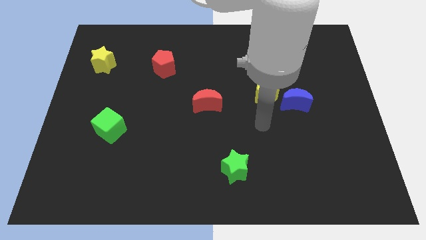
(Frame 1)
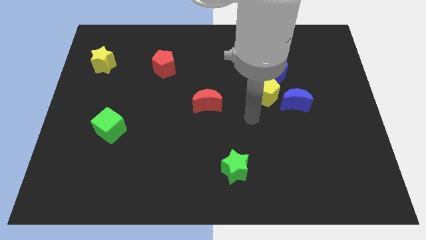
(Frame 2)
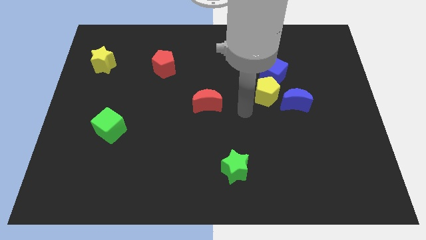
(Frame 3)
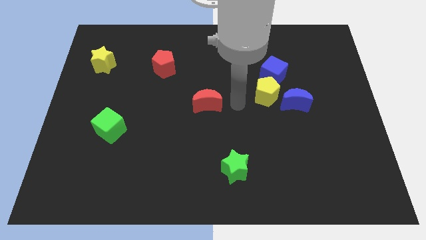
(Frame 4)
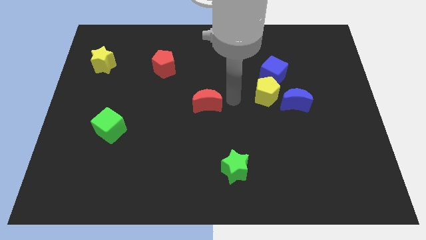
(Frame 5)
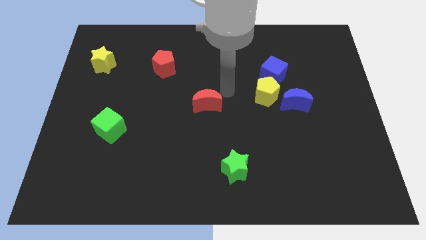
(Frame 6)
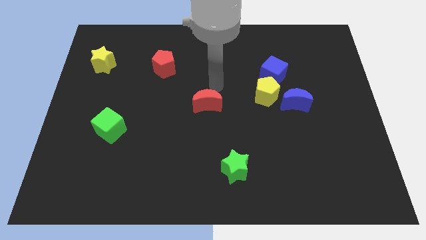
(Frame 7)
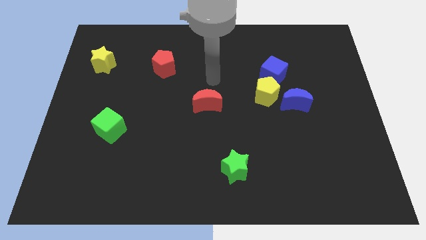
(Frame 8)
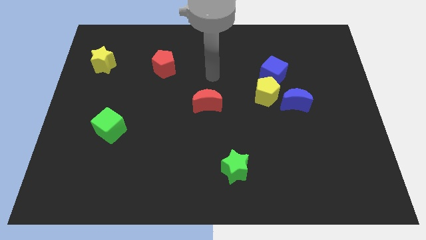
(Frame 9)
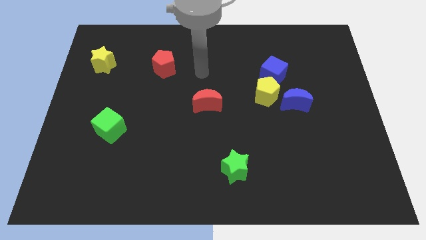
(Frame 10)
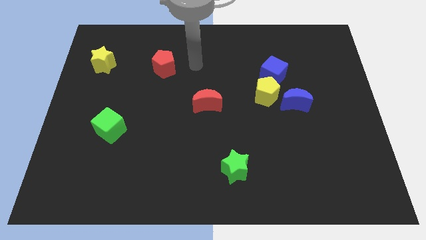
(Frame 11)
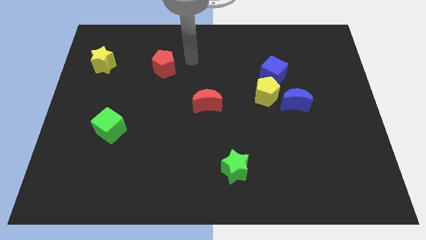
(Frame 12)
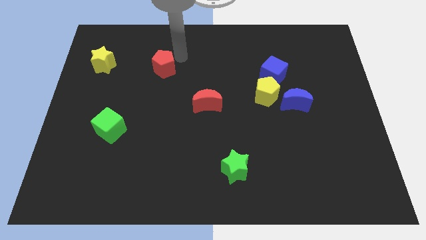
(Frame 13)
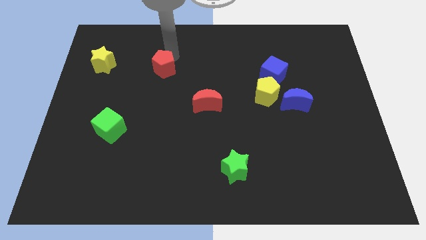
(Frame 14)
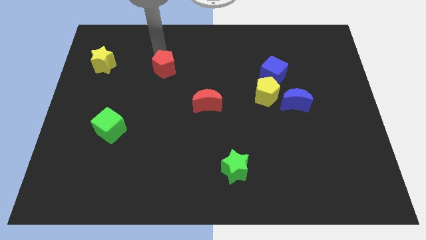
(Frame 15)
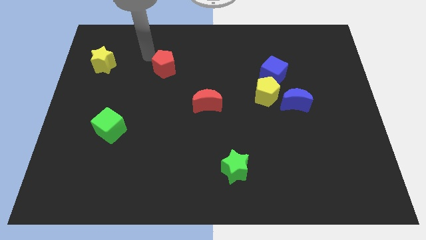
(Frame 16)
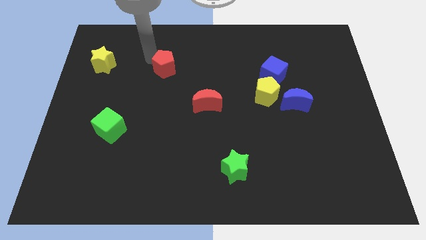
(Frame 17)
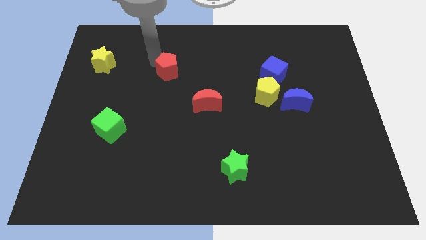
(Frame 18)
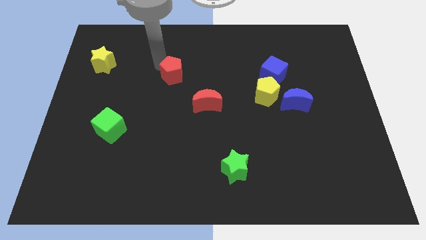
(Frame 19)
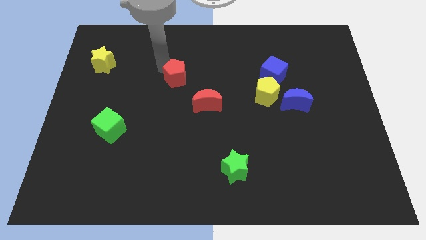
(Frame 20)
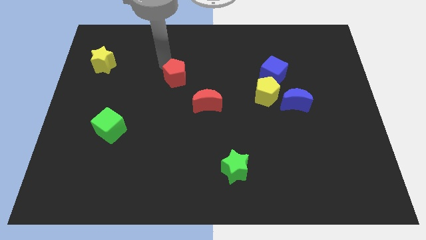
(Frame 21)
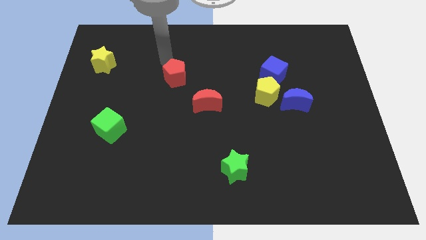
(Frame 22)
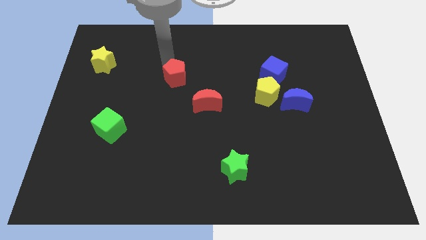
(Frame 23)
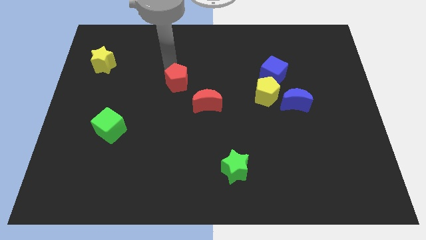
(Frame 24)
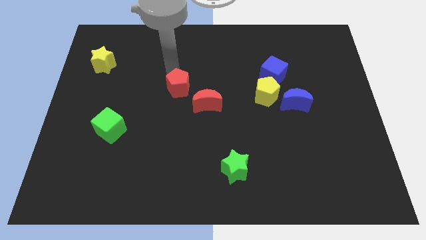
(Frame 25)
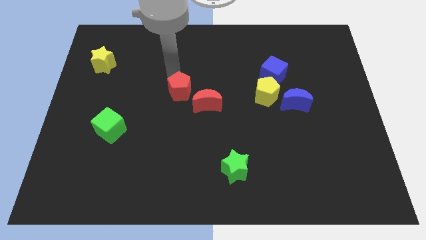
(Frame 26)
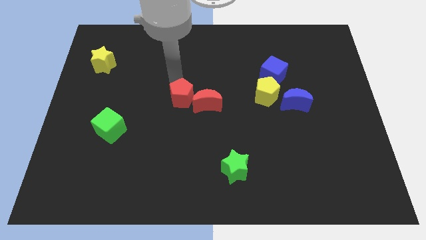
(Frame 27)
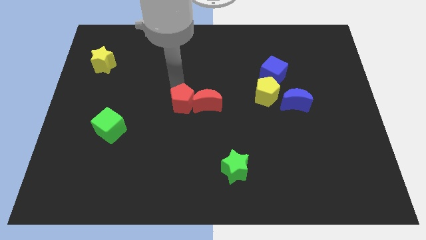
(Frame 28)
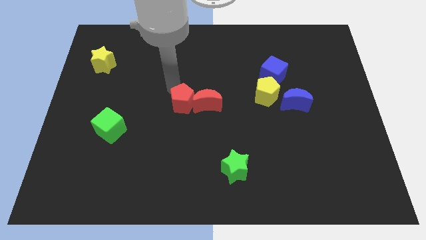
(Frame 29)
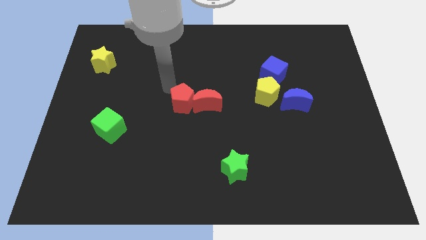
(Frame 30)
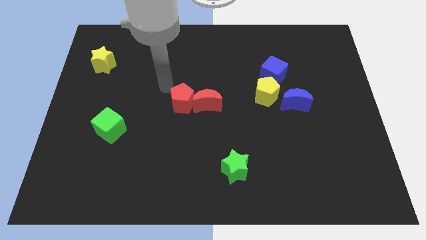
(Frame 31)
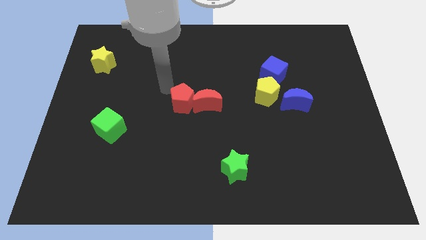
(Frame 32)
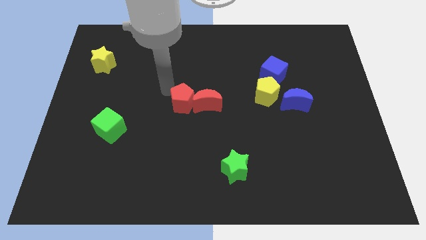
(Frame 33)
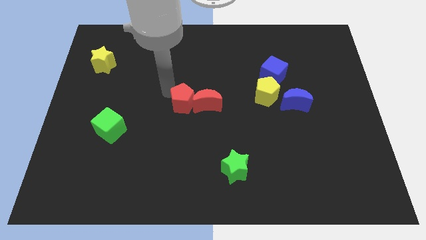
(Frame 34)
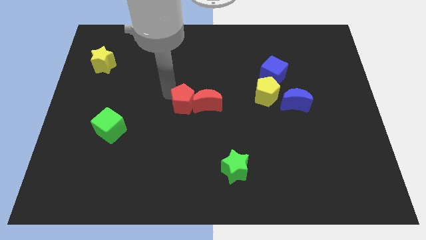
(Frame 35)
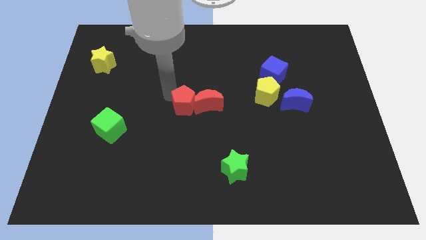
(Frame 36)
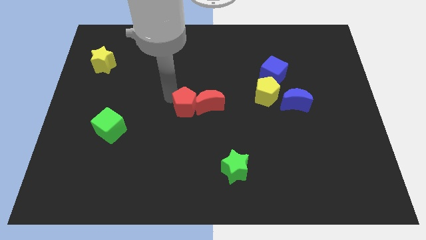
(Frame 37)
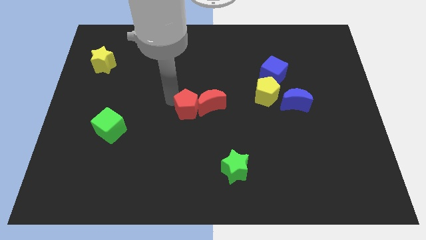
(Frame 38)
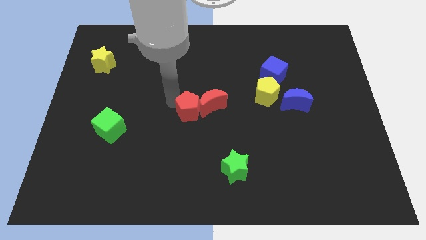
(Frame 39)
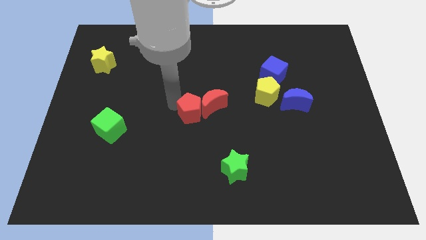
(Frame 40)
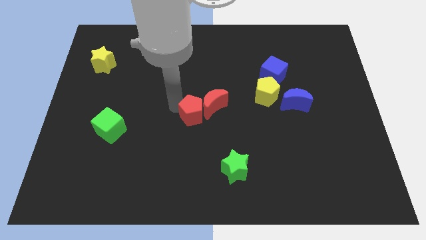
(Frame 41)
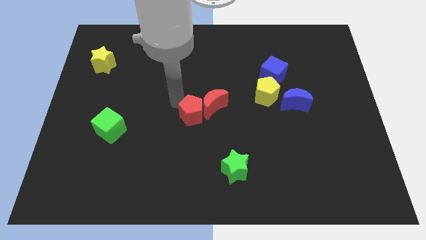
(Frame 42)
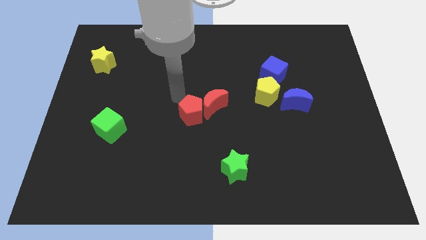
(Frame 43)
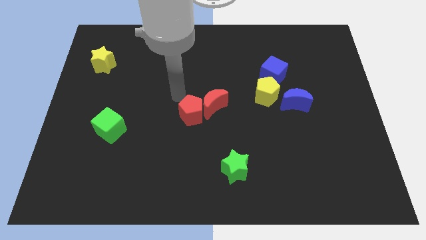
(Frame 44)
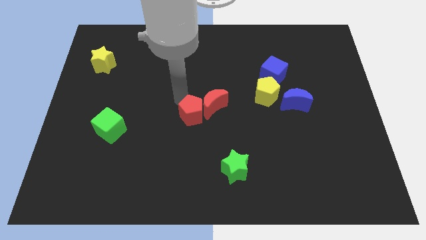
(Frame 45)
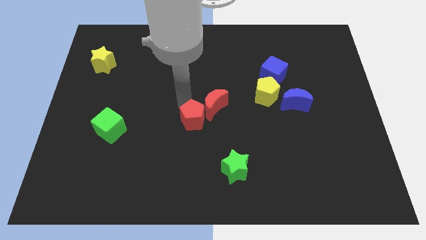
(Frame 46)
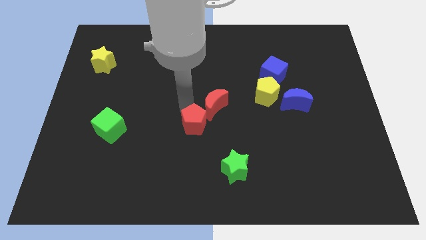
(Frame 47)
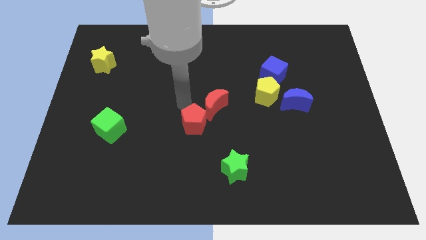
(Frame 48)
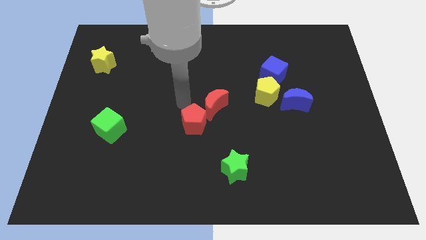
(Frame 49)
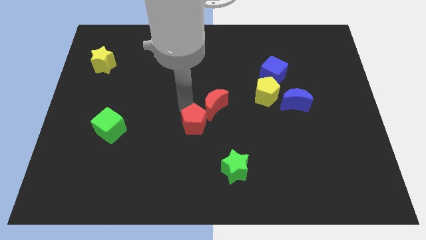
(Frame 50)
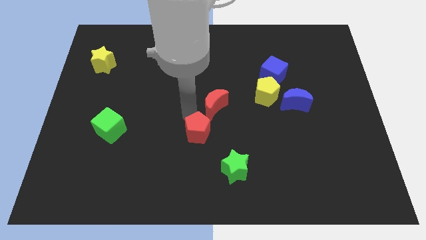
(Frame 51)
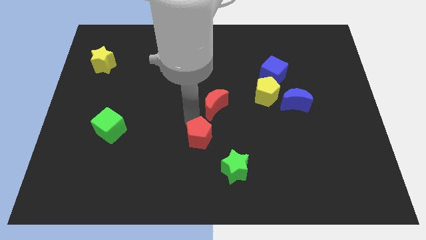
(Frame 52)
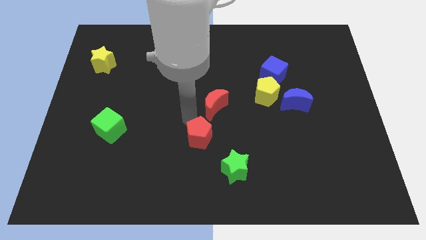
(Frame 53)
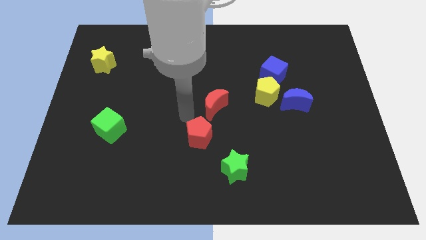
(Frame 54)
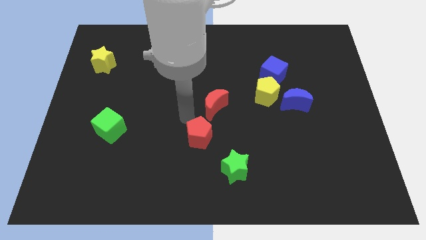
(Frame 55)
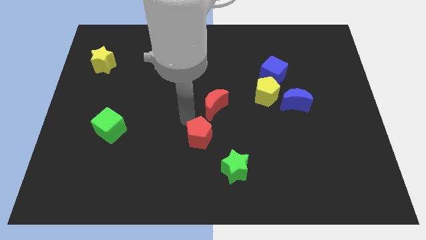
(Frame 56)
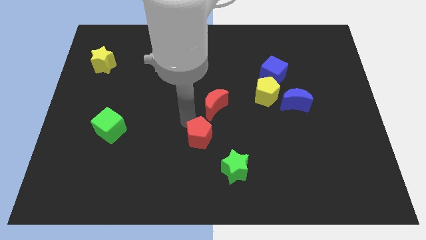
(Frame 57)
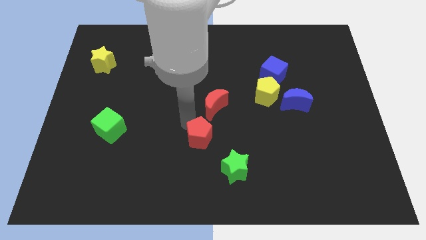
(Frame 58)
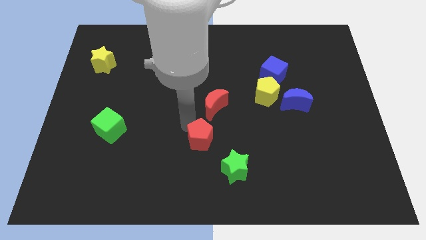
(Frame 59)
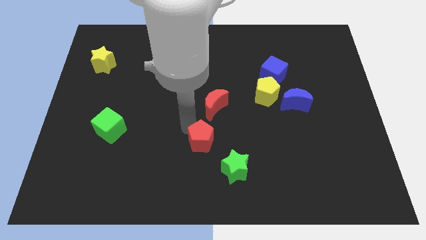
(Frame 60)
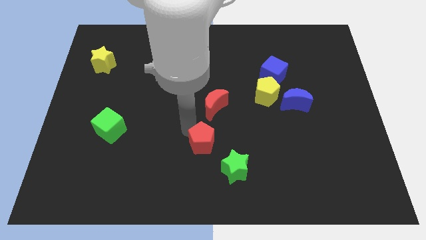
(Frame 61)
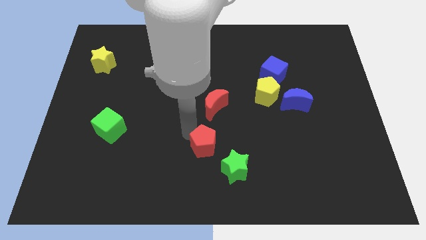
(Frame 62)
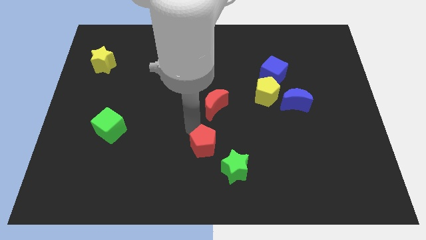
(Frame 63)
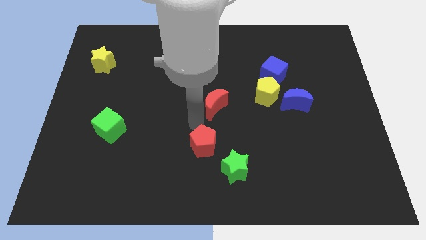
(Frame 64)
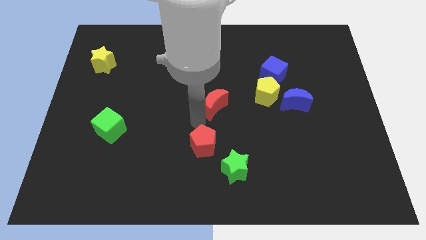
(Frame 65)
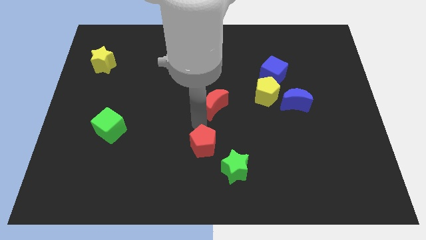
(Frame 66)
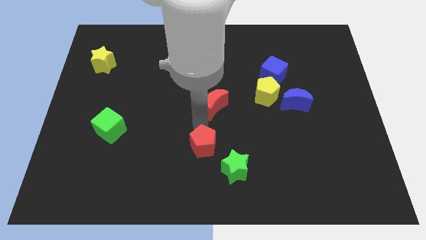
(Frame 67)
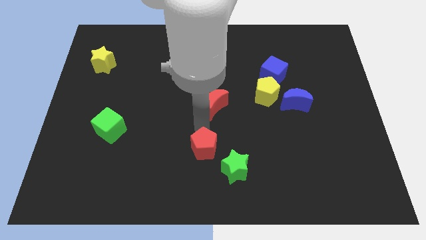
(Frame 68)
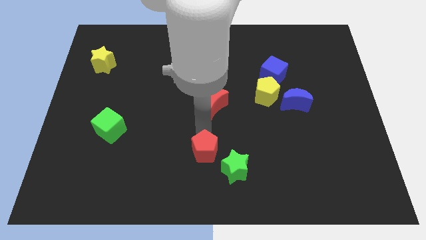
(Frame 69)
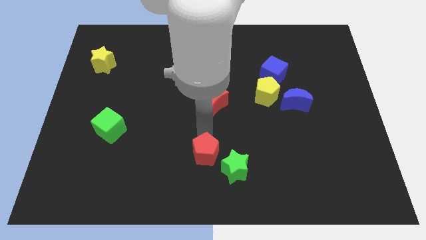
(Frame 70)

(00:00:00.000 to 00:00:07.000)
put the red pentagon to the bottom side
